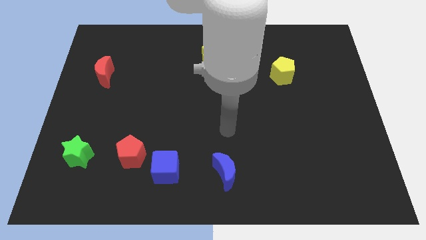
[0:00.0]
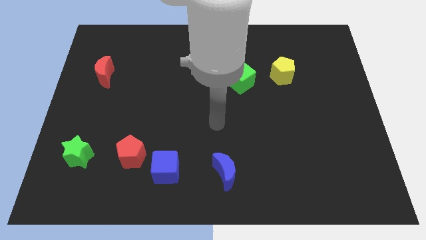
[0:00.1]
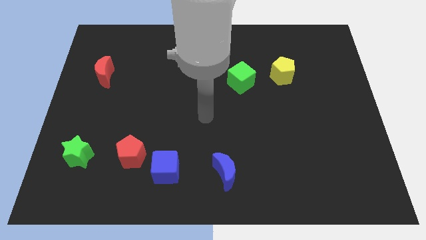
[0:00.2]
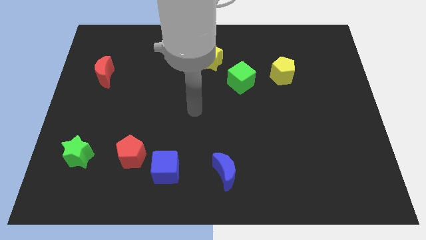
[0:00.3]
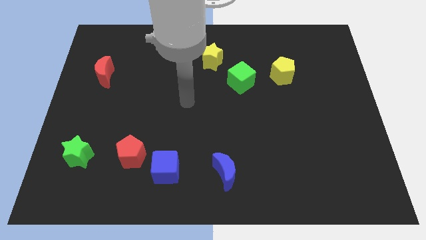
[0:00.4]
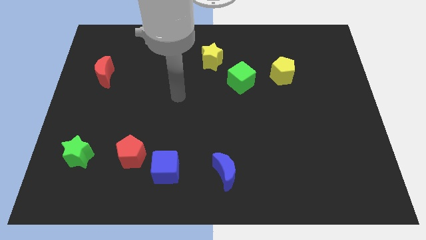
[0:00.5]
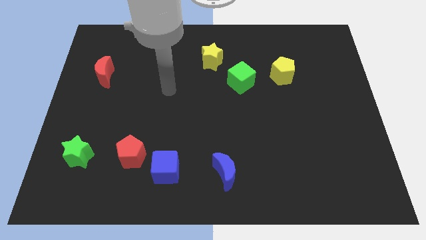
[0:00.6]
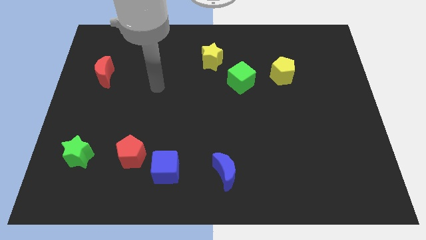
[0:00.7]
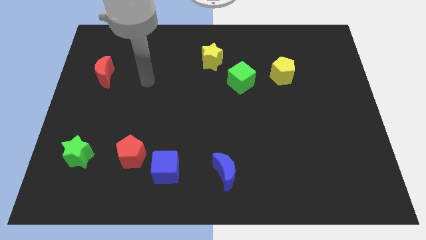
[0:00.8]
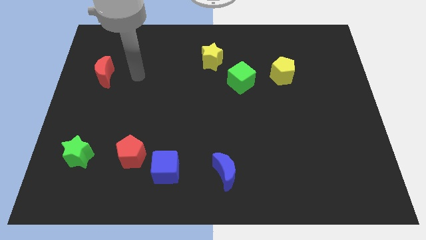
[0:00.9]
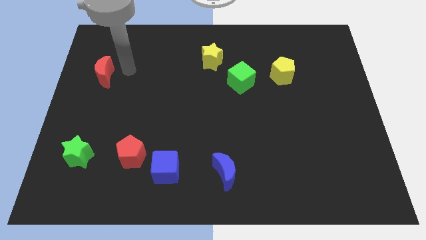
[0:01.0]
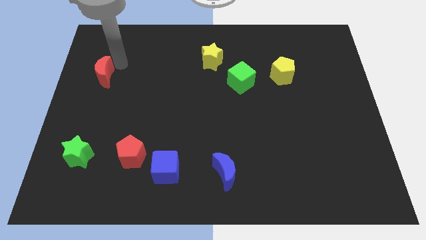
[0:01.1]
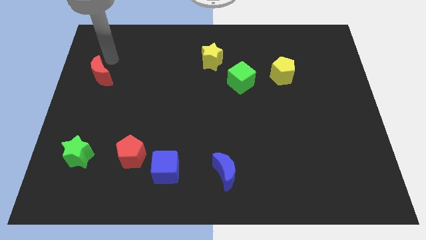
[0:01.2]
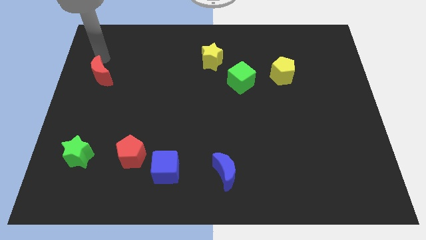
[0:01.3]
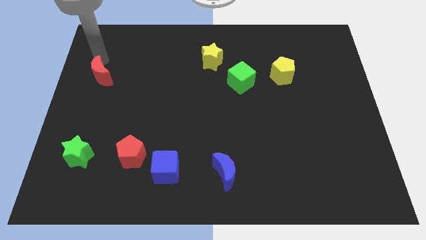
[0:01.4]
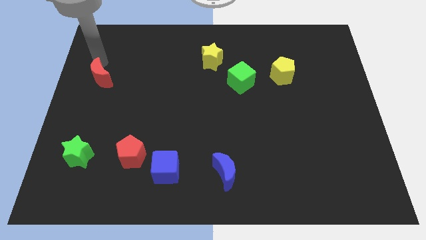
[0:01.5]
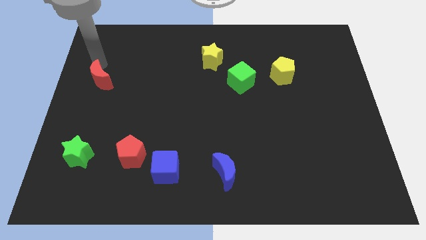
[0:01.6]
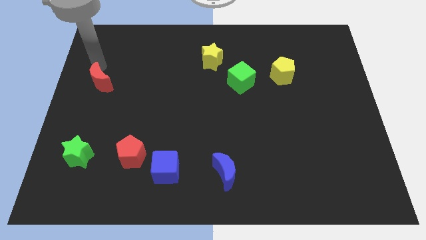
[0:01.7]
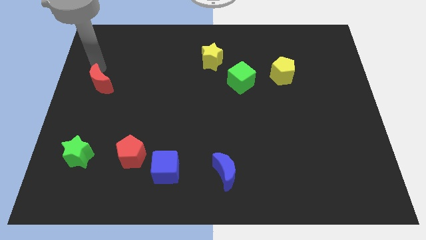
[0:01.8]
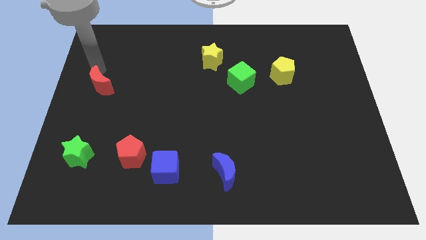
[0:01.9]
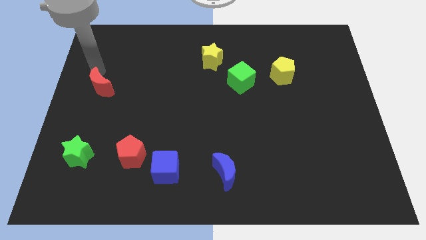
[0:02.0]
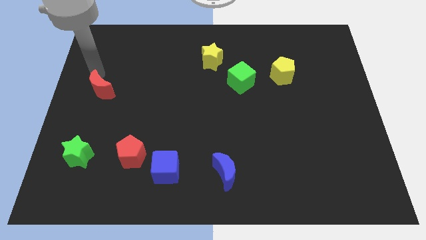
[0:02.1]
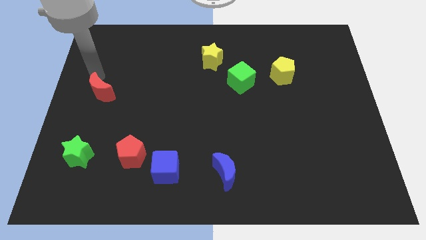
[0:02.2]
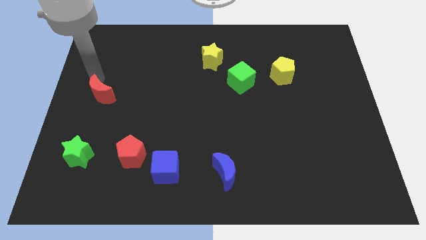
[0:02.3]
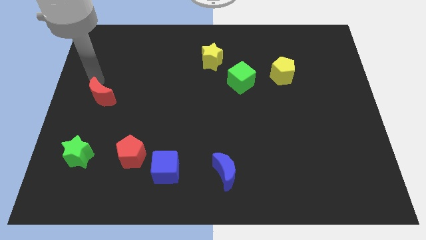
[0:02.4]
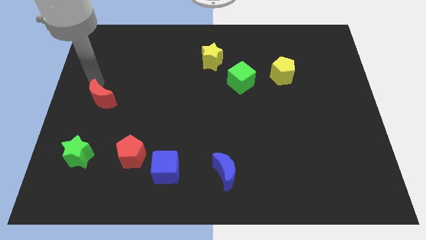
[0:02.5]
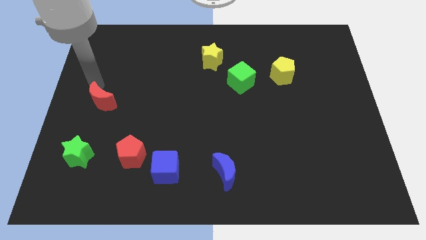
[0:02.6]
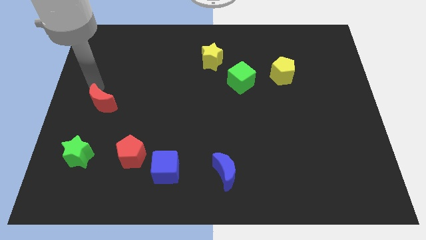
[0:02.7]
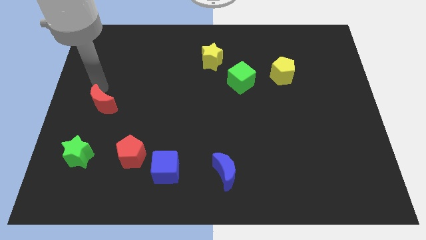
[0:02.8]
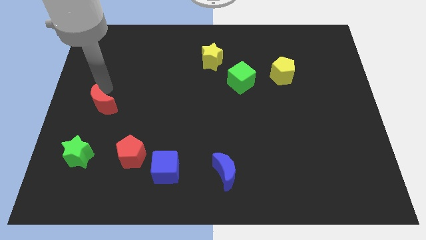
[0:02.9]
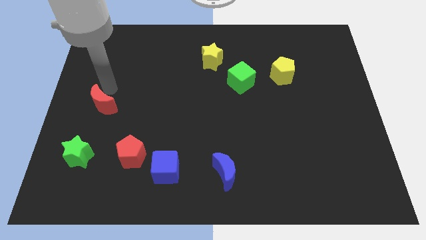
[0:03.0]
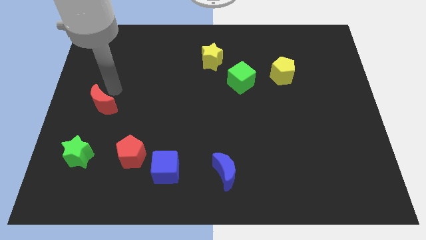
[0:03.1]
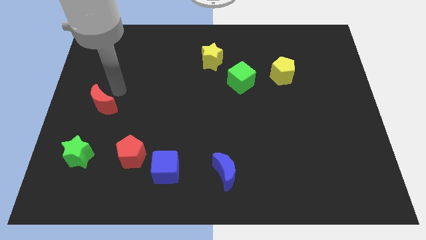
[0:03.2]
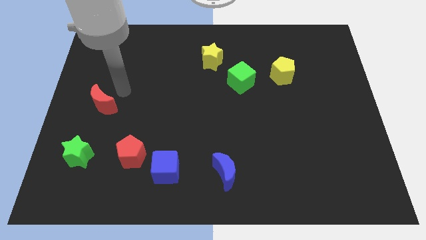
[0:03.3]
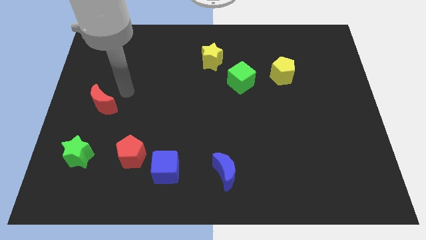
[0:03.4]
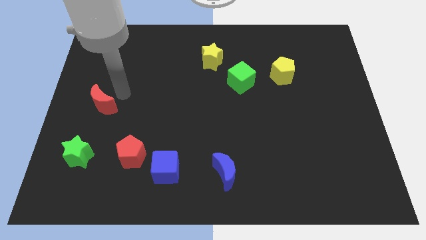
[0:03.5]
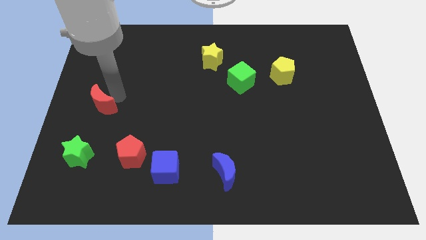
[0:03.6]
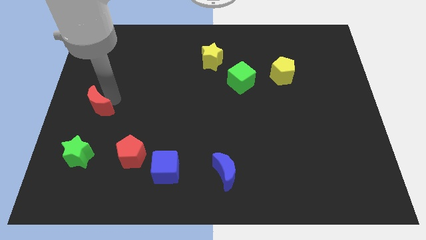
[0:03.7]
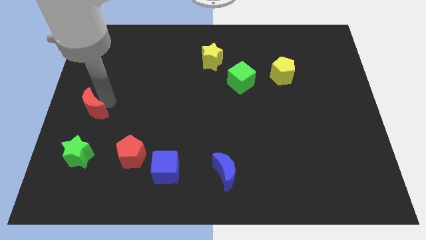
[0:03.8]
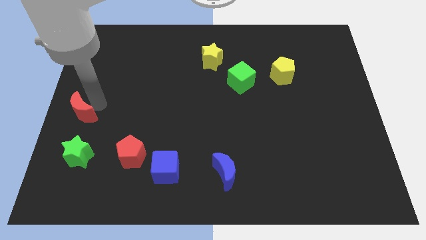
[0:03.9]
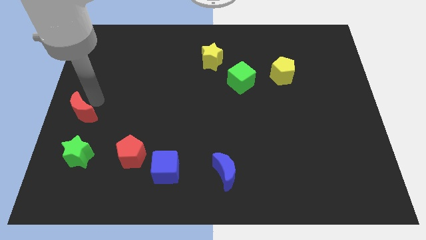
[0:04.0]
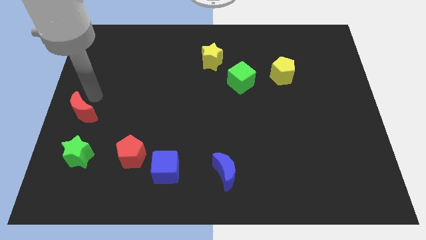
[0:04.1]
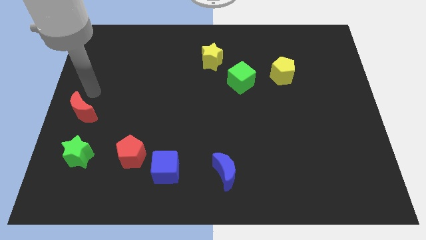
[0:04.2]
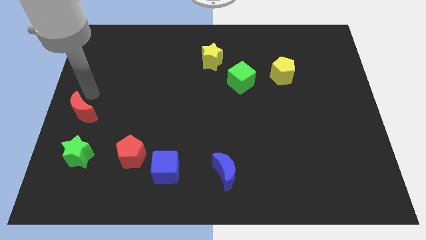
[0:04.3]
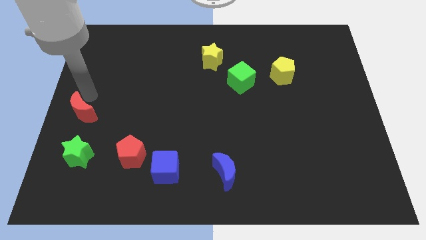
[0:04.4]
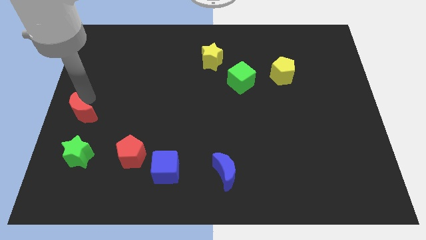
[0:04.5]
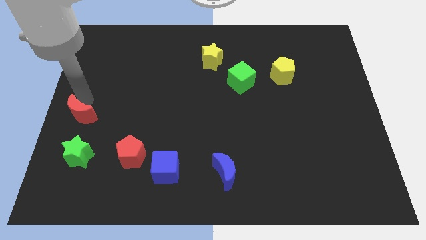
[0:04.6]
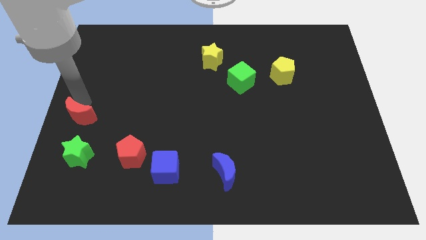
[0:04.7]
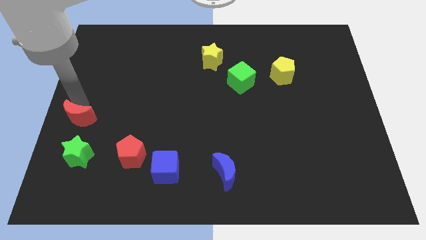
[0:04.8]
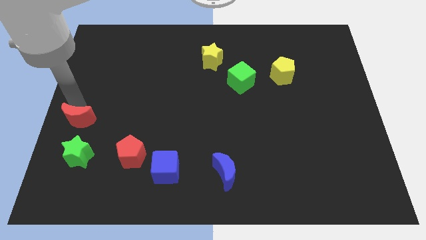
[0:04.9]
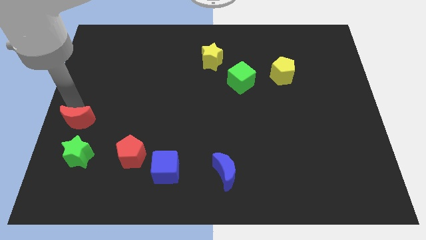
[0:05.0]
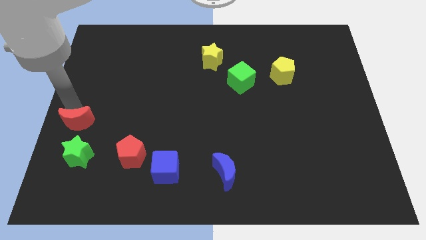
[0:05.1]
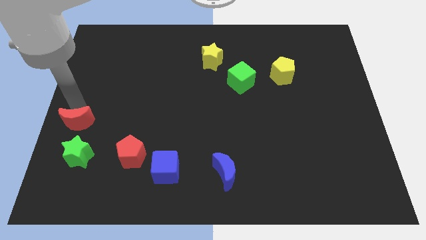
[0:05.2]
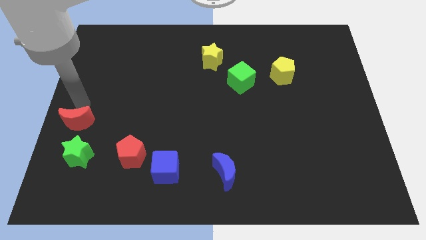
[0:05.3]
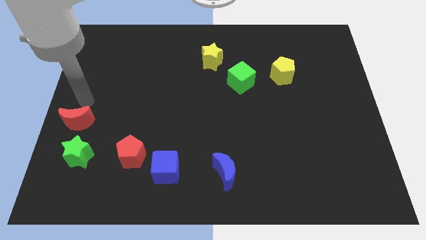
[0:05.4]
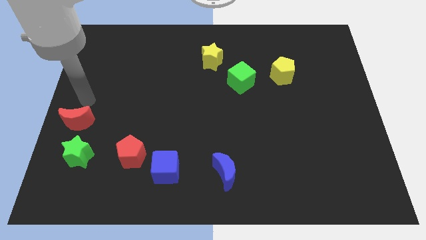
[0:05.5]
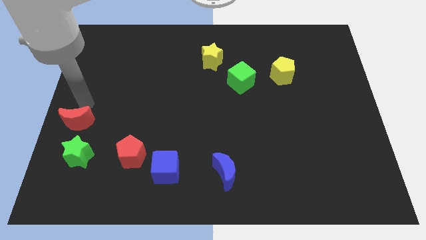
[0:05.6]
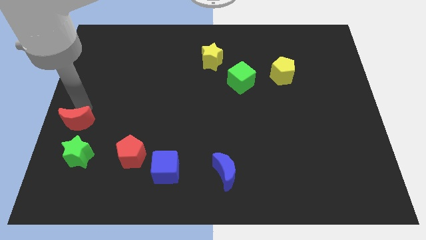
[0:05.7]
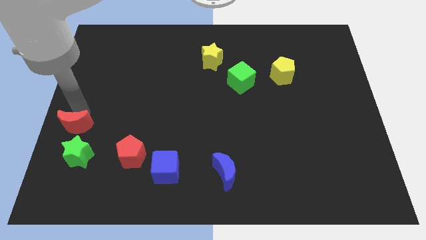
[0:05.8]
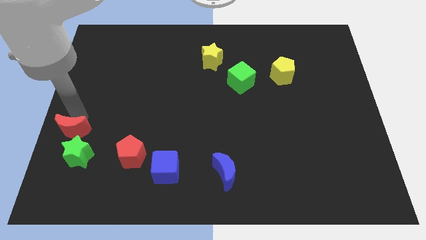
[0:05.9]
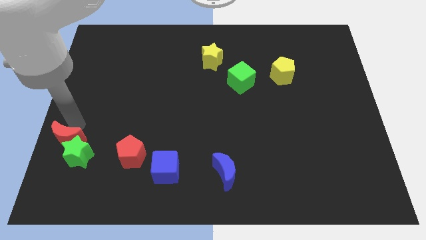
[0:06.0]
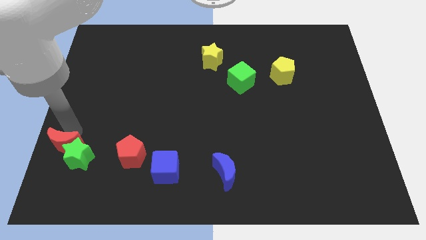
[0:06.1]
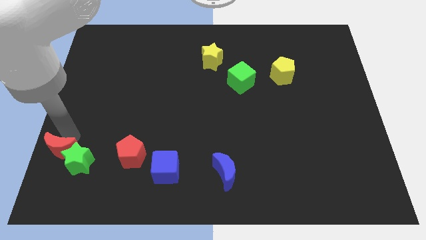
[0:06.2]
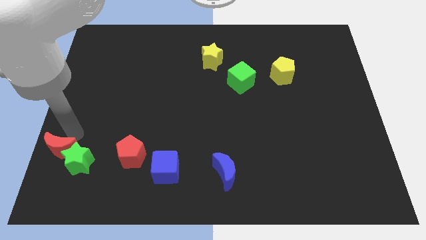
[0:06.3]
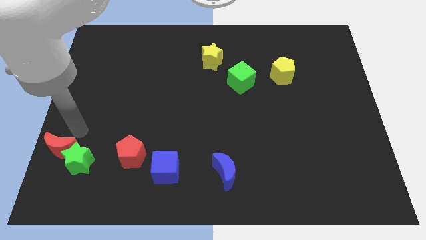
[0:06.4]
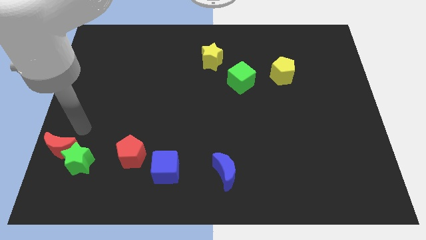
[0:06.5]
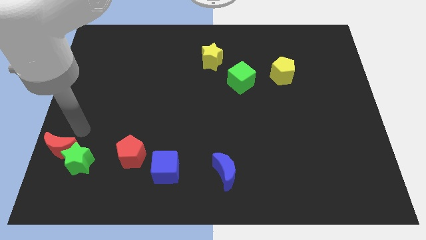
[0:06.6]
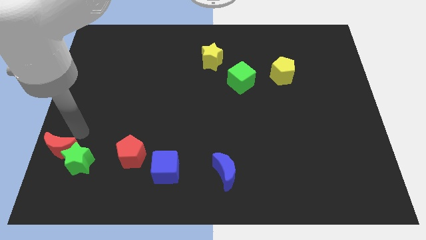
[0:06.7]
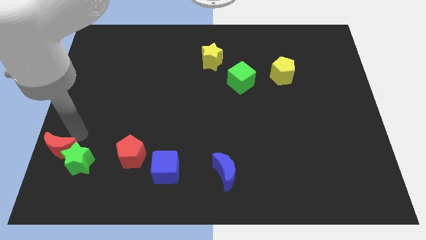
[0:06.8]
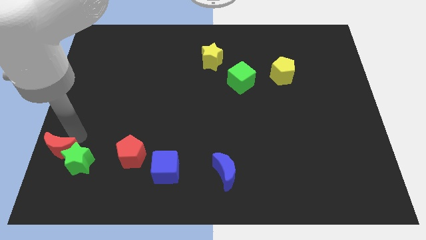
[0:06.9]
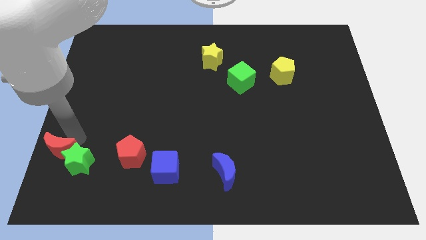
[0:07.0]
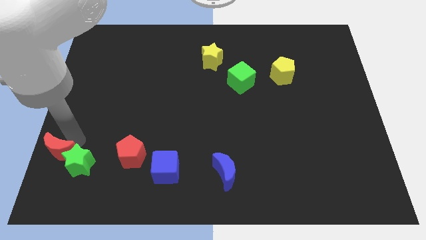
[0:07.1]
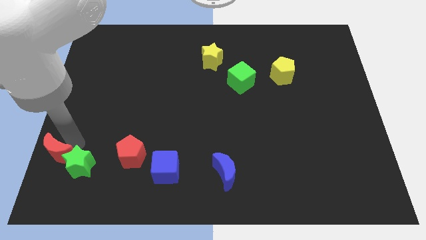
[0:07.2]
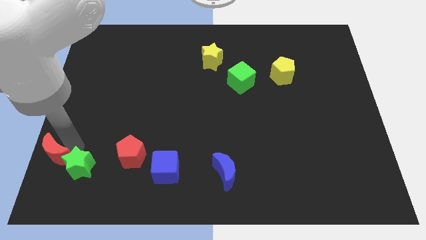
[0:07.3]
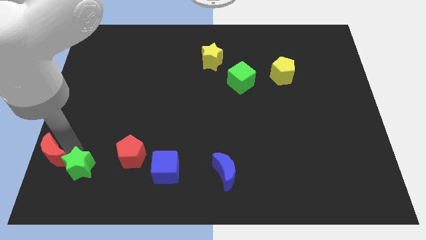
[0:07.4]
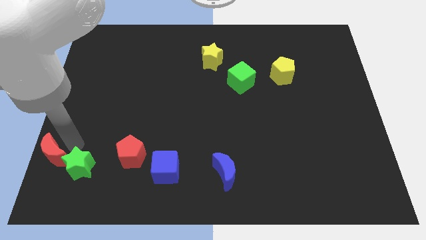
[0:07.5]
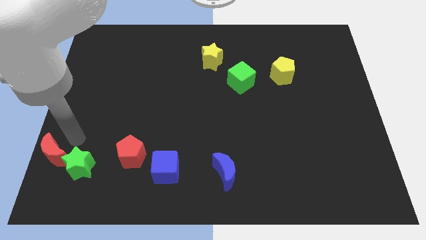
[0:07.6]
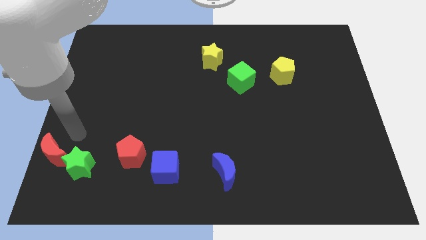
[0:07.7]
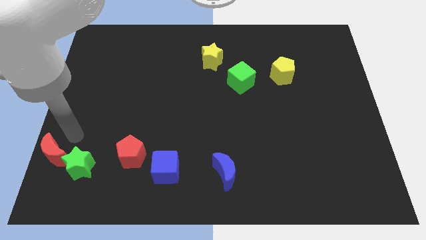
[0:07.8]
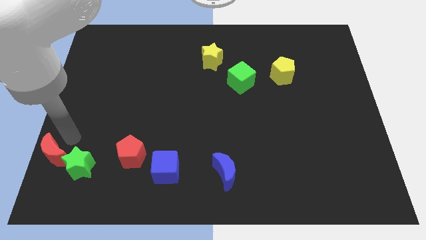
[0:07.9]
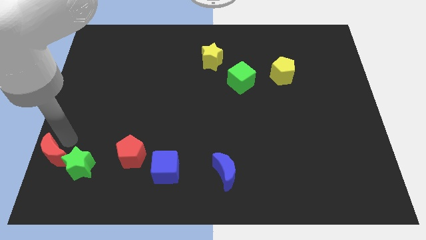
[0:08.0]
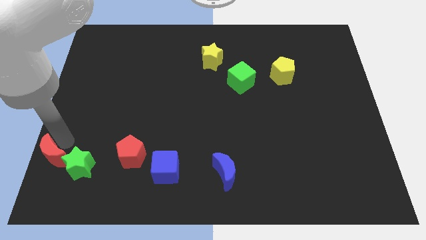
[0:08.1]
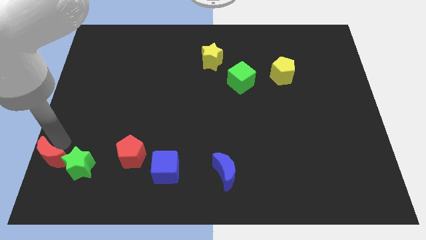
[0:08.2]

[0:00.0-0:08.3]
slide the red moon to the bottom left
